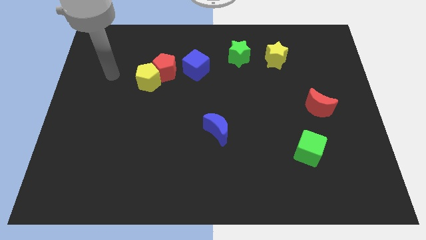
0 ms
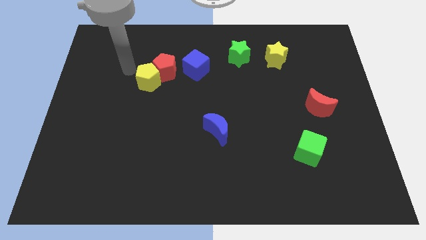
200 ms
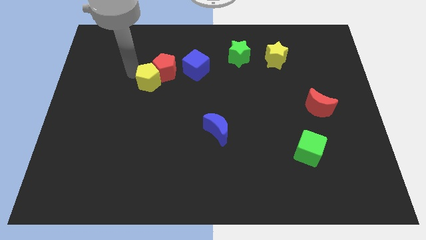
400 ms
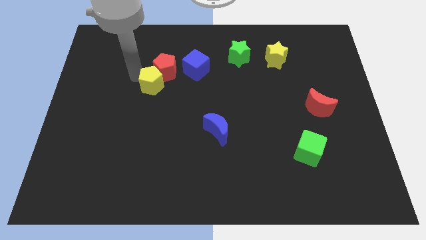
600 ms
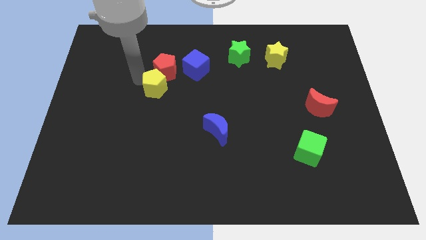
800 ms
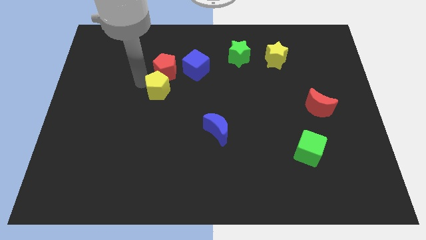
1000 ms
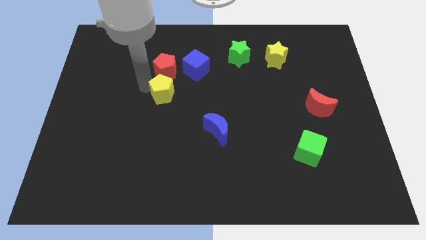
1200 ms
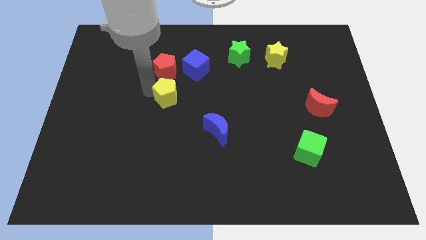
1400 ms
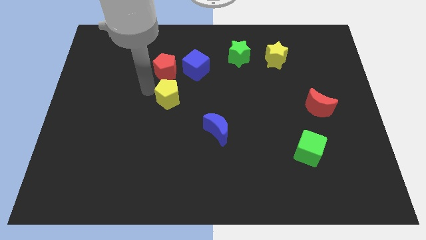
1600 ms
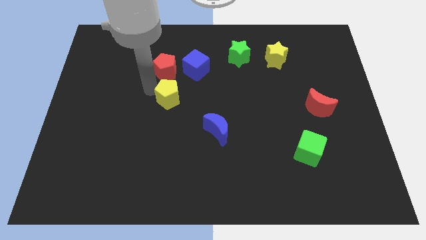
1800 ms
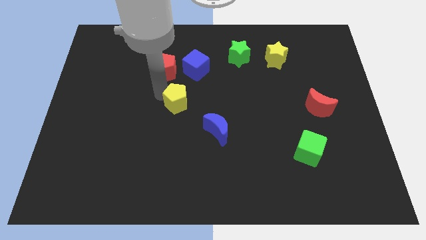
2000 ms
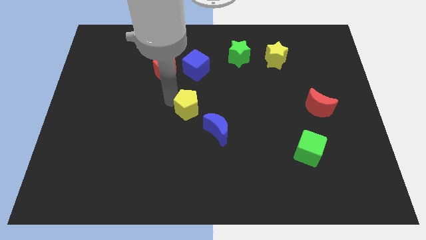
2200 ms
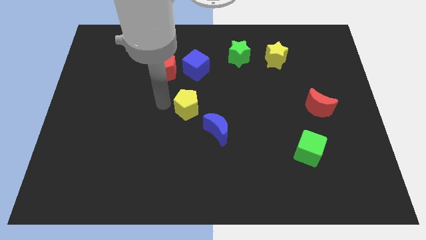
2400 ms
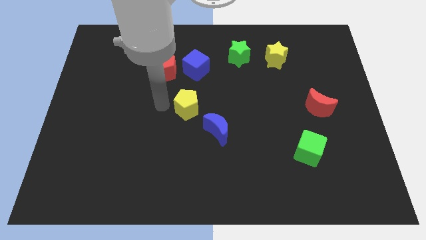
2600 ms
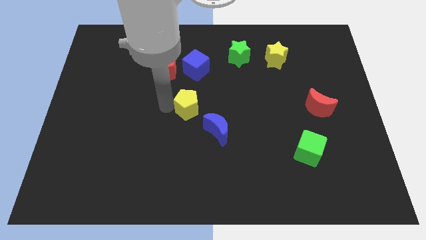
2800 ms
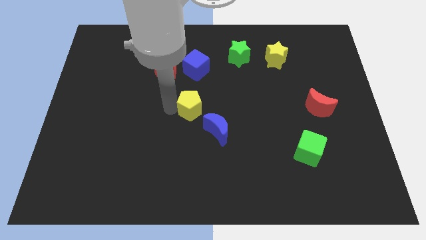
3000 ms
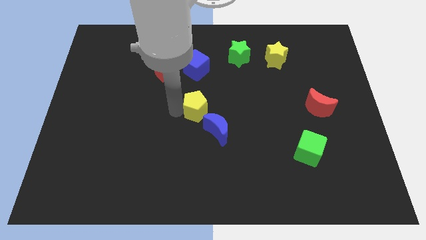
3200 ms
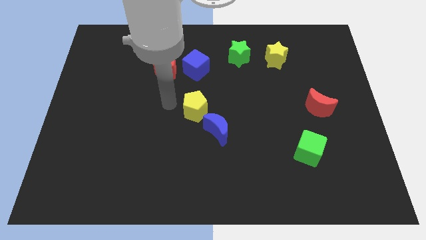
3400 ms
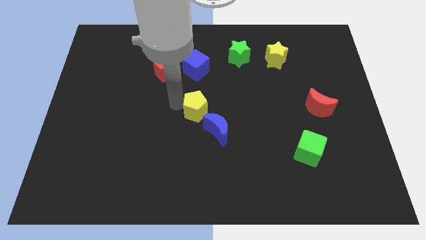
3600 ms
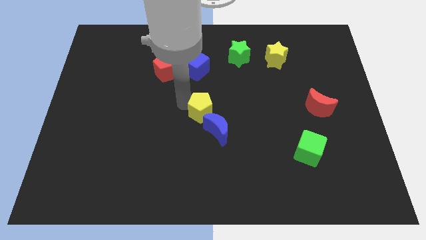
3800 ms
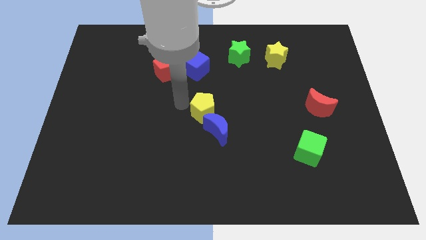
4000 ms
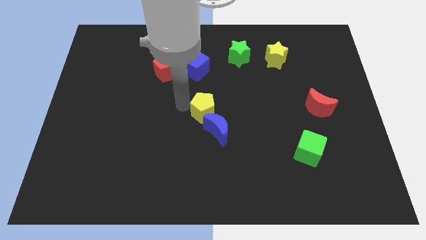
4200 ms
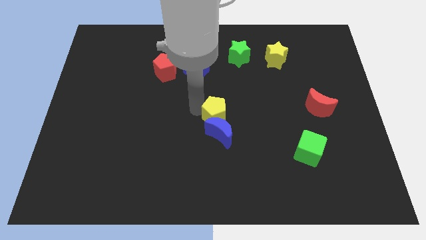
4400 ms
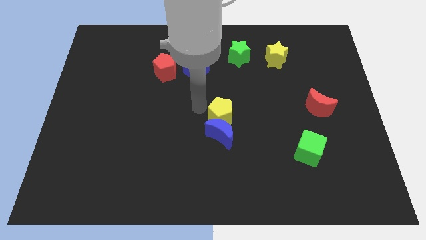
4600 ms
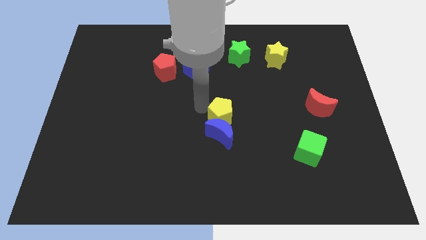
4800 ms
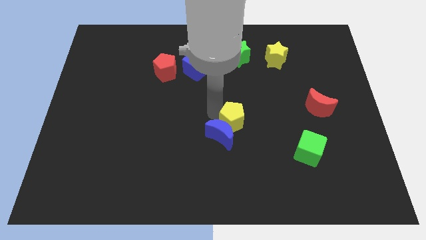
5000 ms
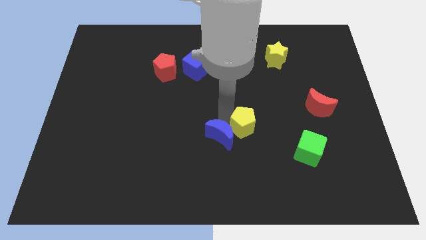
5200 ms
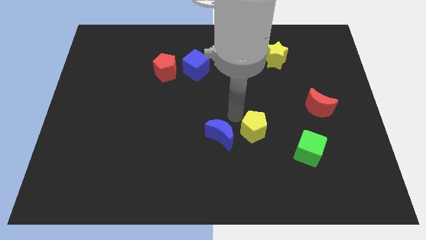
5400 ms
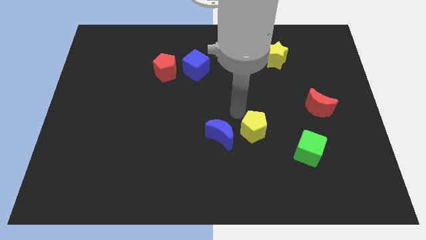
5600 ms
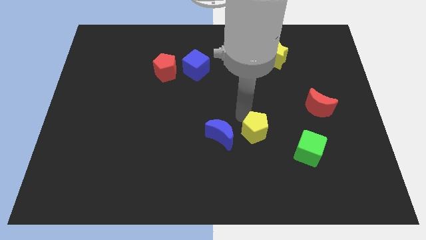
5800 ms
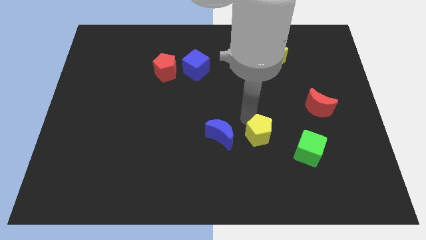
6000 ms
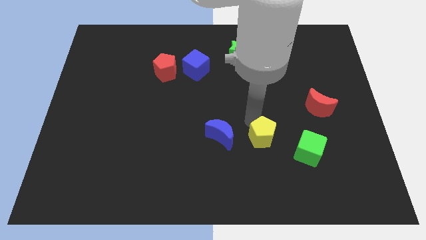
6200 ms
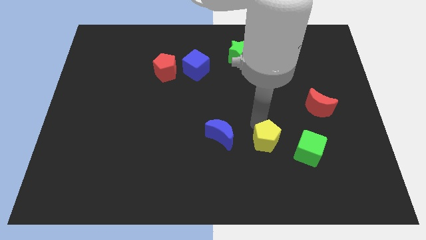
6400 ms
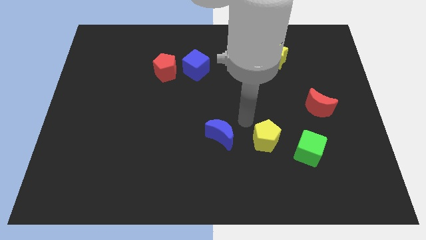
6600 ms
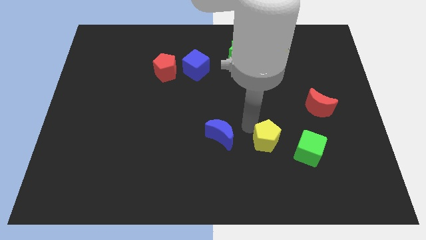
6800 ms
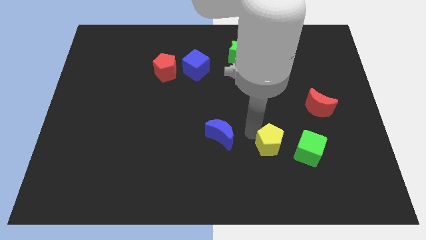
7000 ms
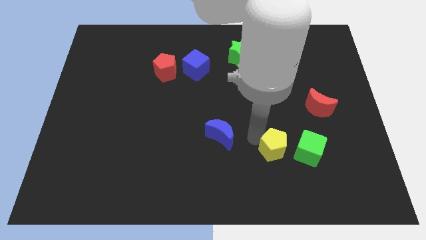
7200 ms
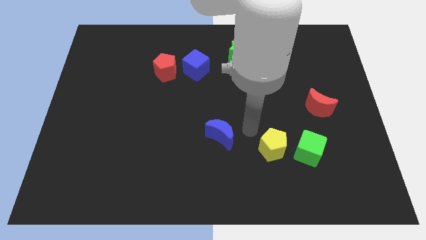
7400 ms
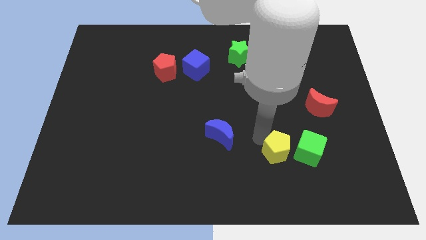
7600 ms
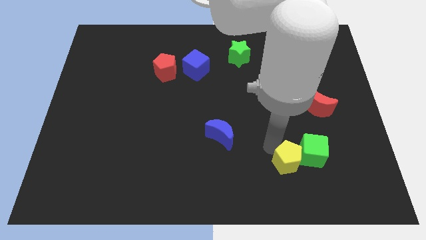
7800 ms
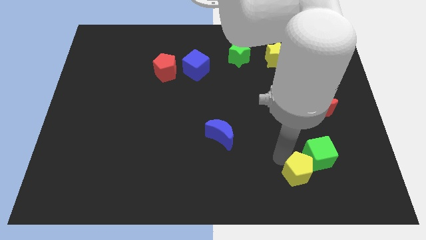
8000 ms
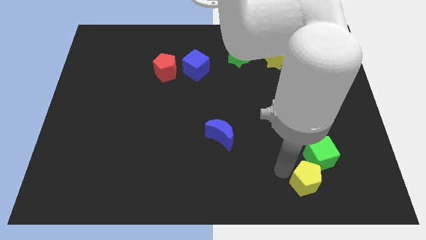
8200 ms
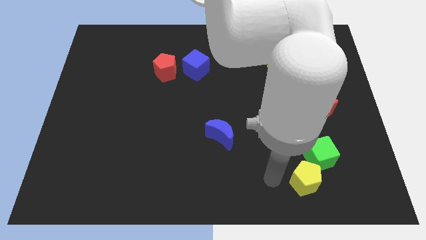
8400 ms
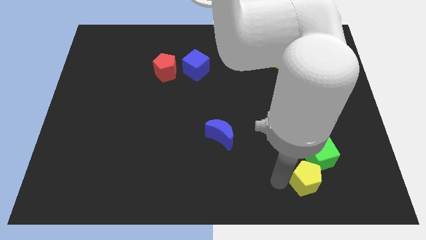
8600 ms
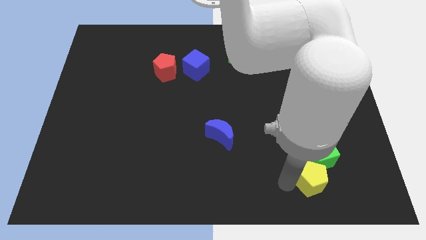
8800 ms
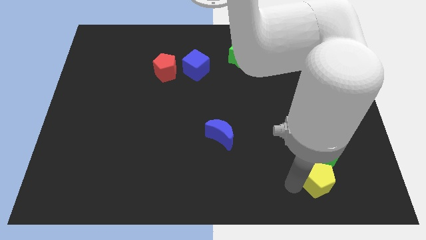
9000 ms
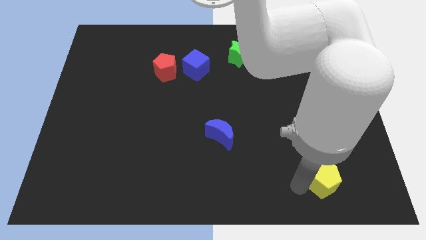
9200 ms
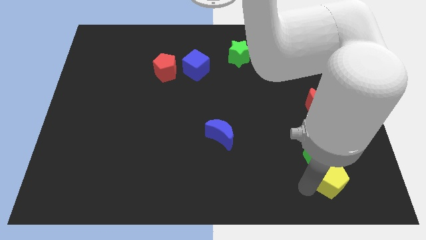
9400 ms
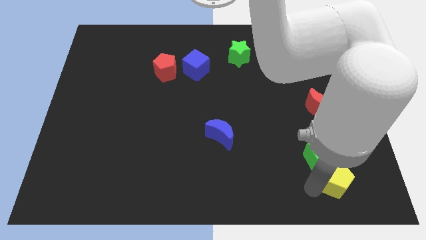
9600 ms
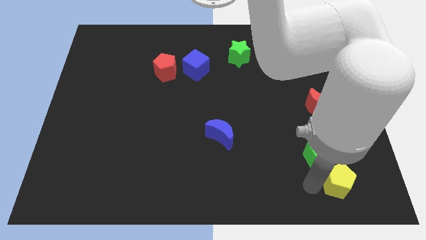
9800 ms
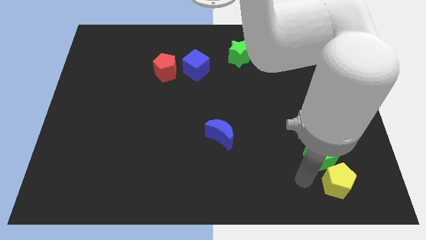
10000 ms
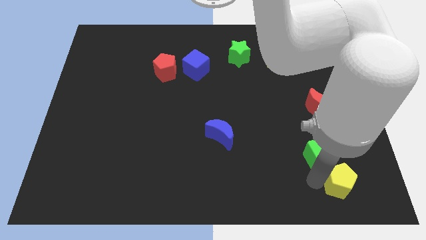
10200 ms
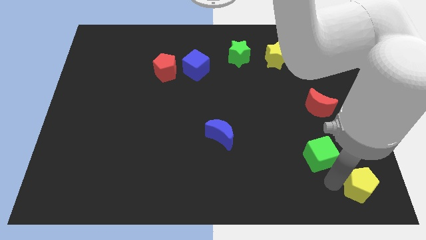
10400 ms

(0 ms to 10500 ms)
move the yellow pentagon to the bottom right

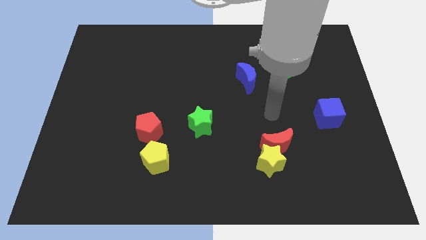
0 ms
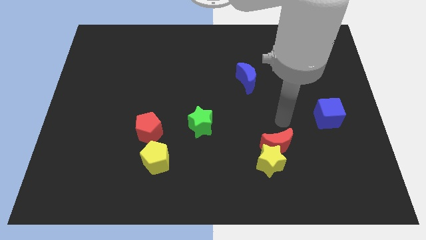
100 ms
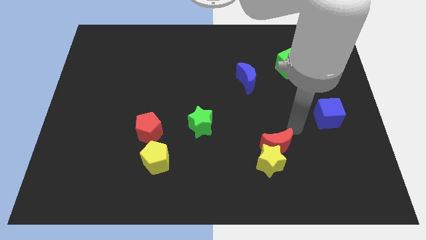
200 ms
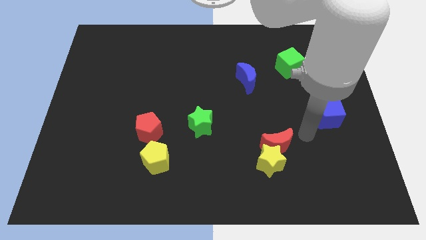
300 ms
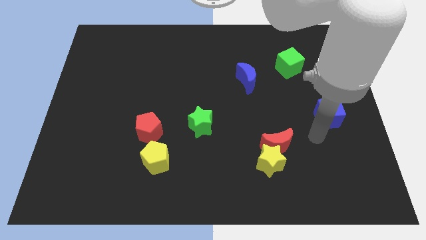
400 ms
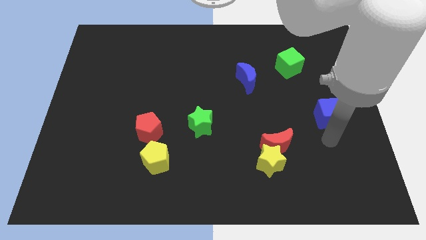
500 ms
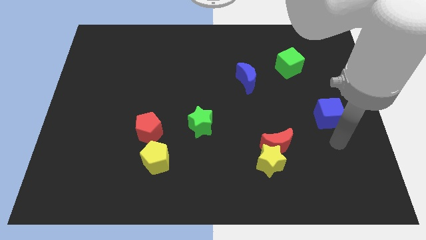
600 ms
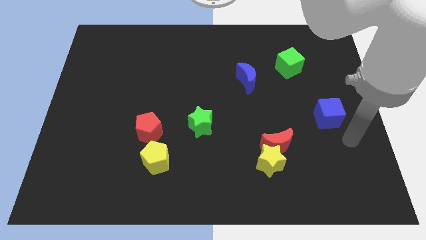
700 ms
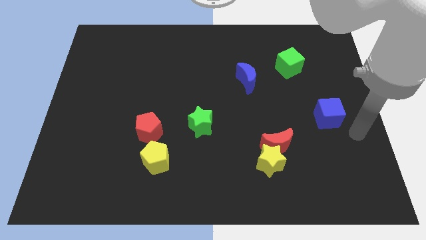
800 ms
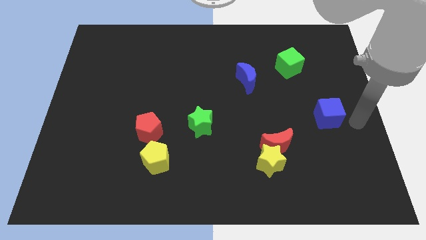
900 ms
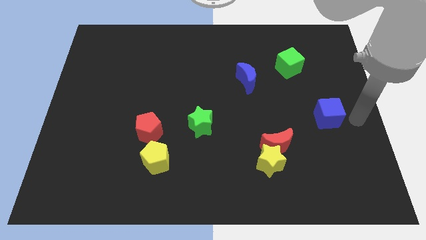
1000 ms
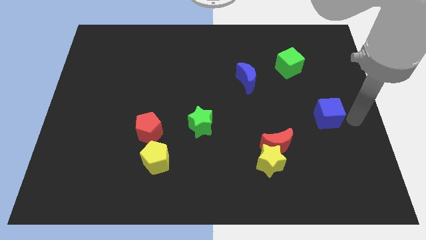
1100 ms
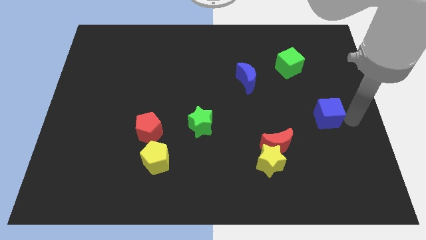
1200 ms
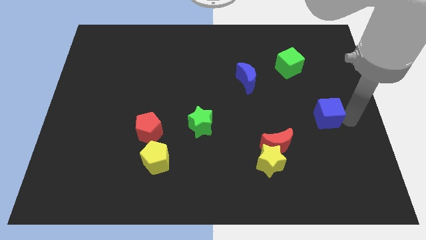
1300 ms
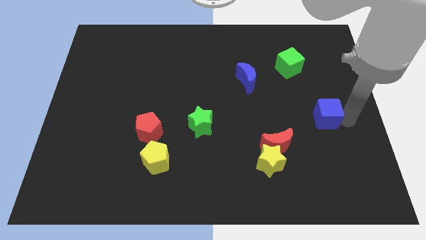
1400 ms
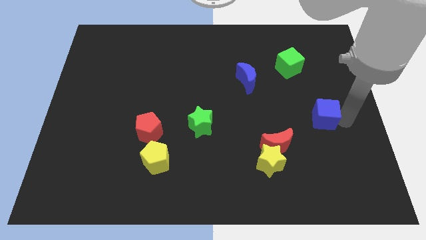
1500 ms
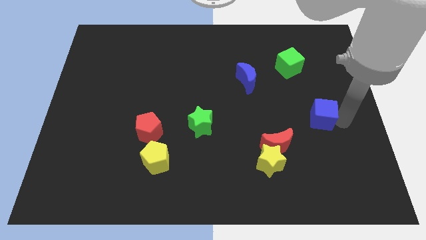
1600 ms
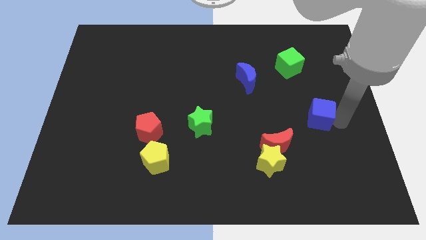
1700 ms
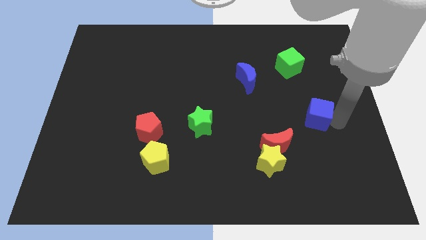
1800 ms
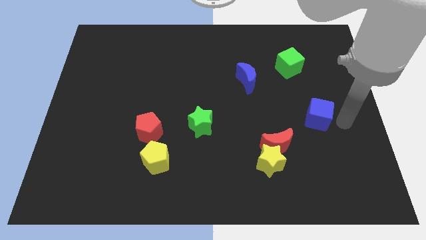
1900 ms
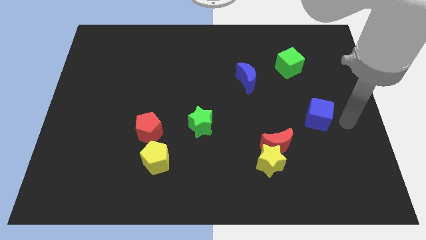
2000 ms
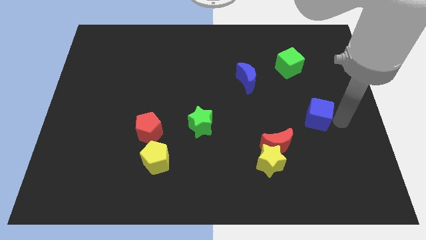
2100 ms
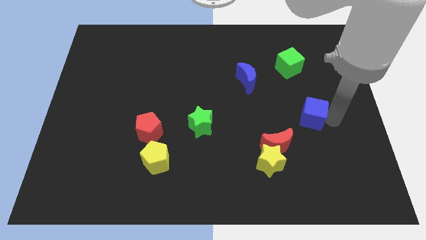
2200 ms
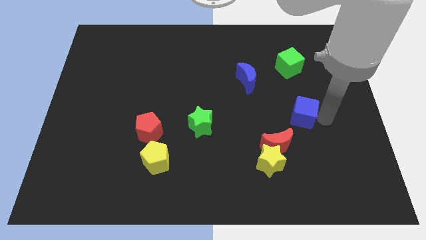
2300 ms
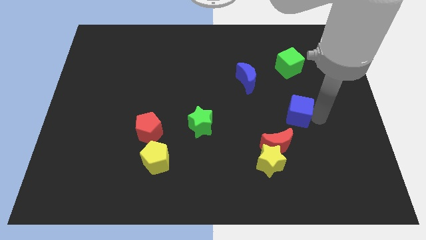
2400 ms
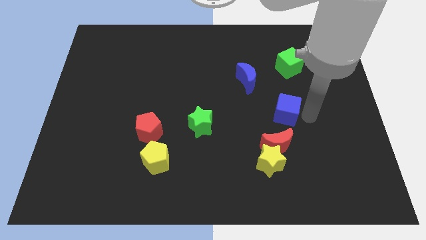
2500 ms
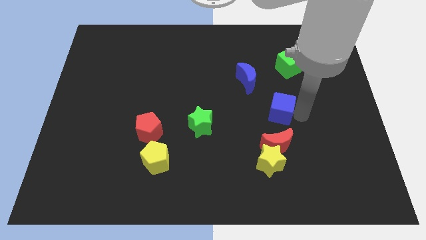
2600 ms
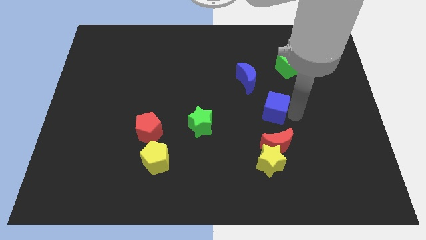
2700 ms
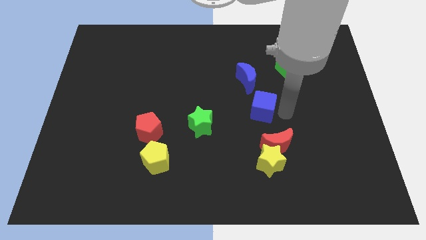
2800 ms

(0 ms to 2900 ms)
push the blue cube to the center
